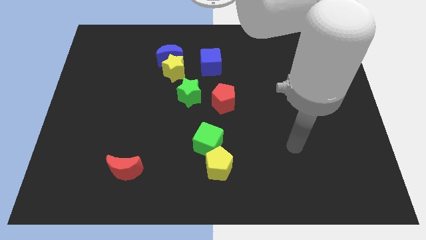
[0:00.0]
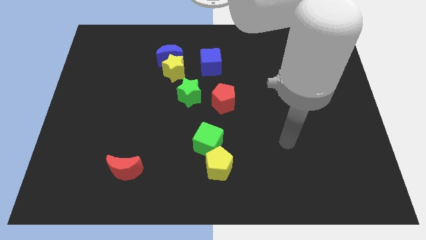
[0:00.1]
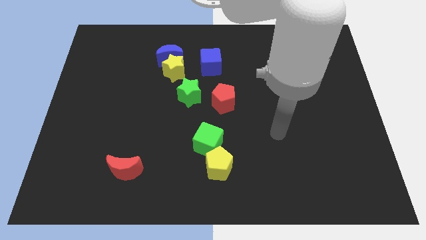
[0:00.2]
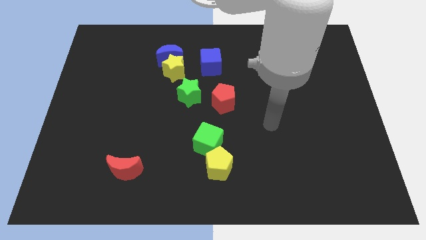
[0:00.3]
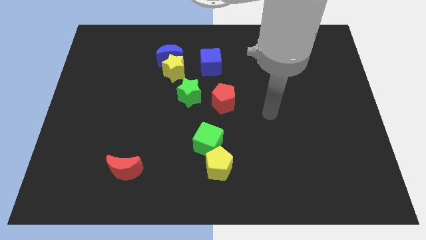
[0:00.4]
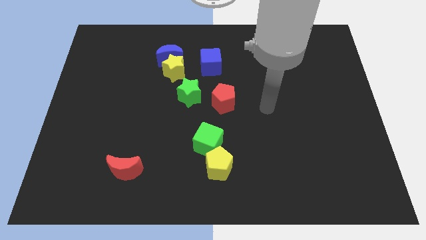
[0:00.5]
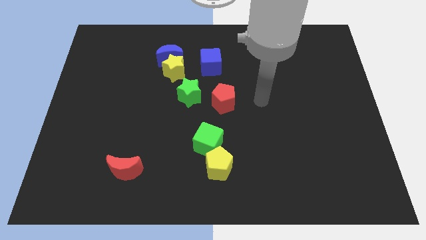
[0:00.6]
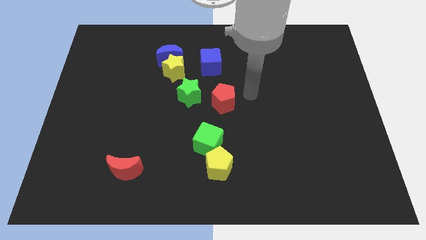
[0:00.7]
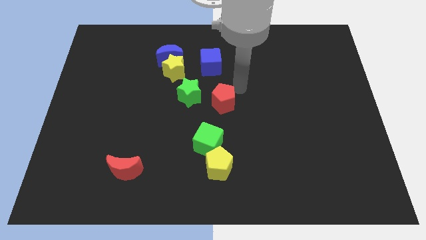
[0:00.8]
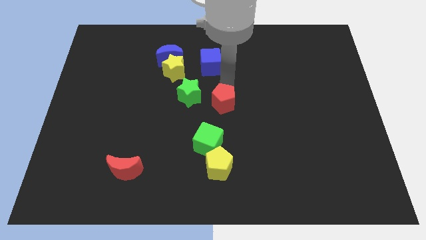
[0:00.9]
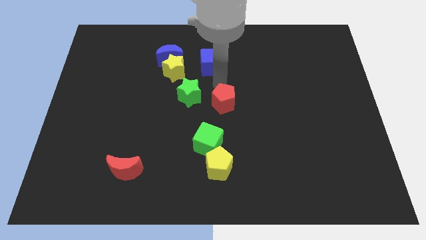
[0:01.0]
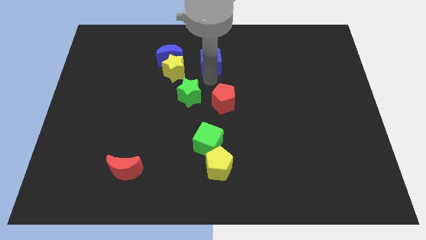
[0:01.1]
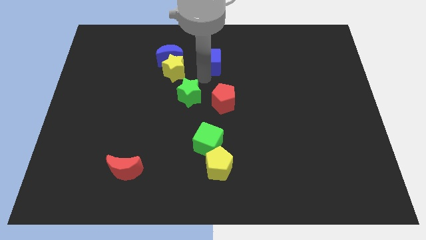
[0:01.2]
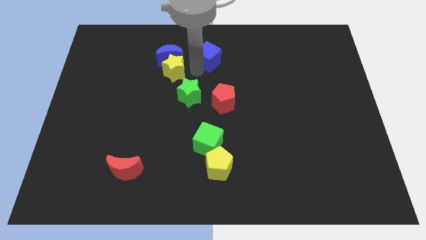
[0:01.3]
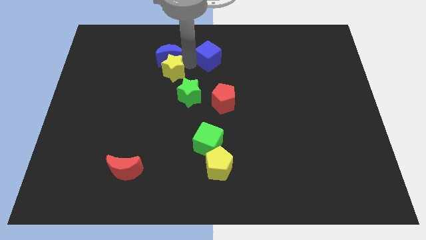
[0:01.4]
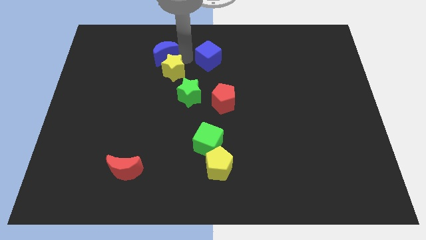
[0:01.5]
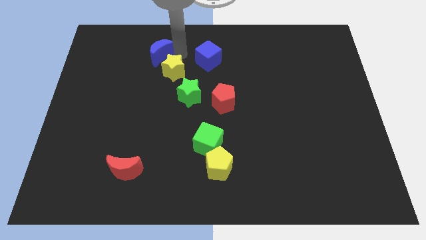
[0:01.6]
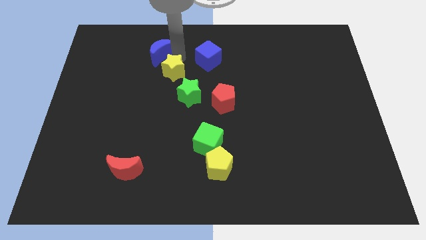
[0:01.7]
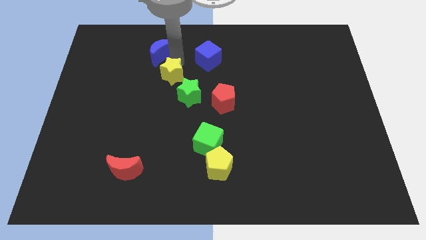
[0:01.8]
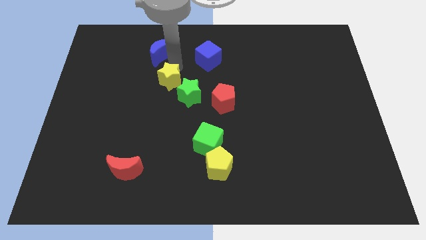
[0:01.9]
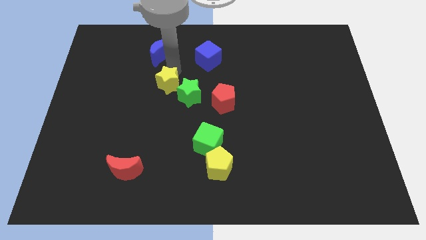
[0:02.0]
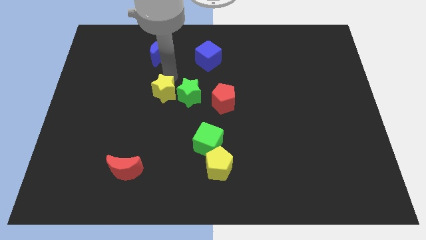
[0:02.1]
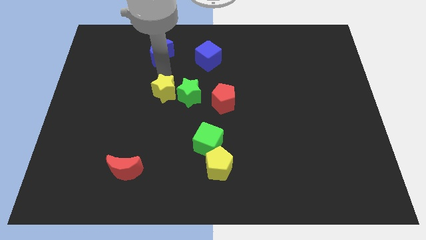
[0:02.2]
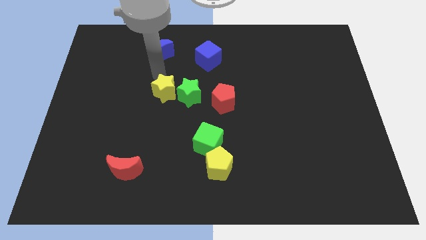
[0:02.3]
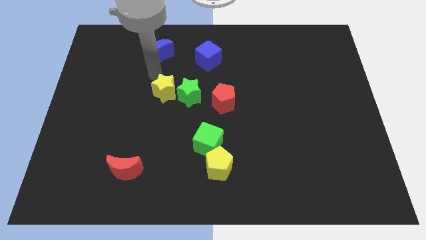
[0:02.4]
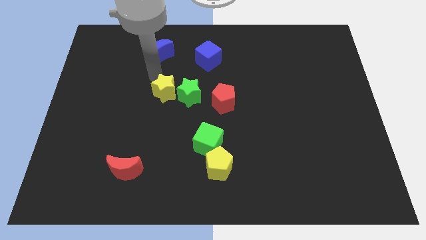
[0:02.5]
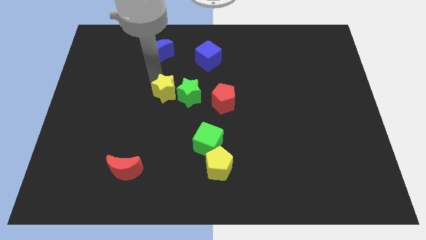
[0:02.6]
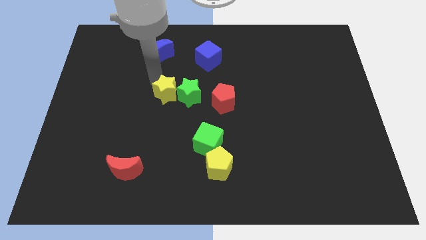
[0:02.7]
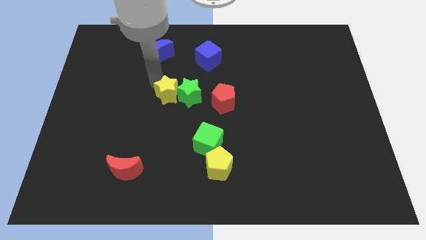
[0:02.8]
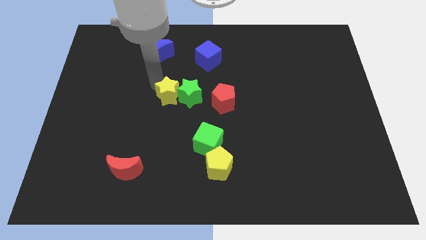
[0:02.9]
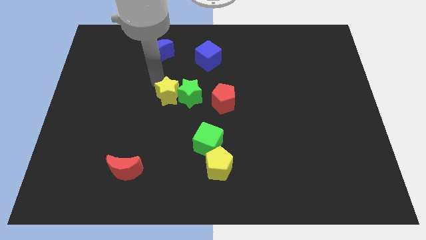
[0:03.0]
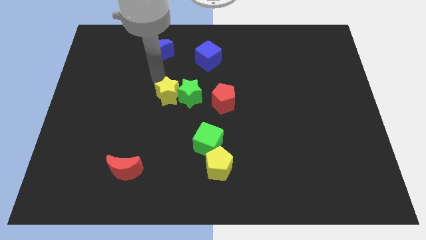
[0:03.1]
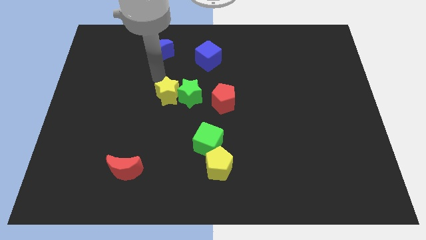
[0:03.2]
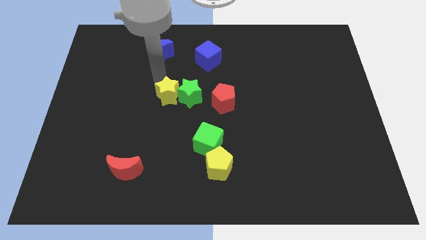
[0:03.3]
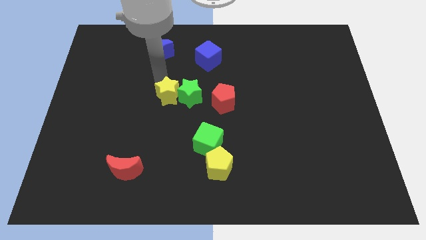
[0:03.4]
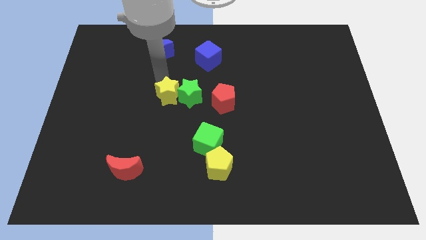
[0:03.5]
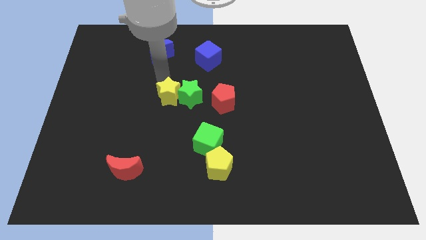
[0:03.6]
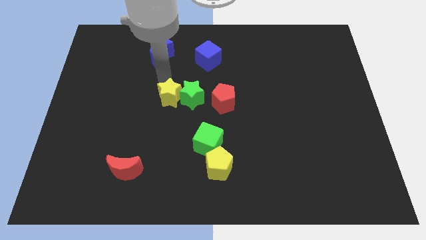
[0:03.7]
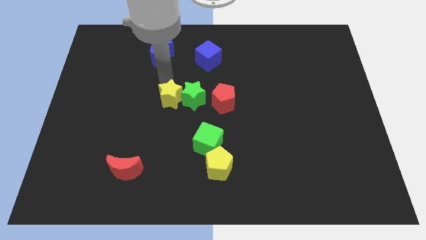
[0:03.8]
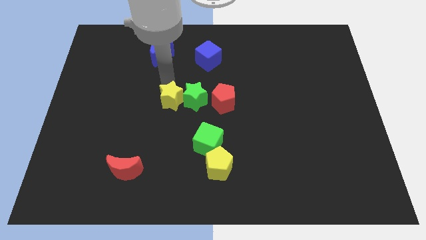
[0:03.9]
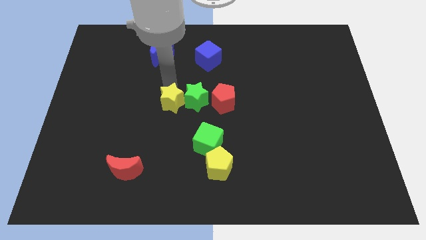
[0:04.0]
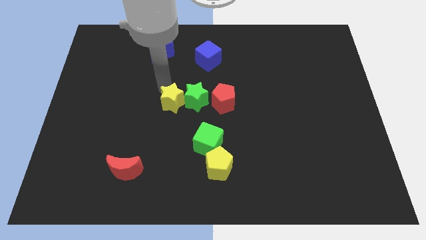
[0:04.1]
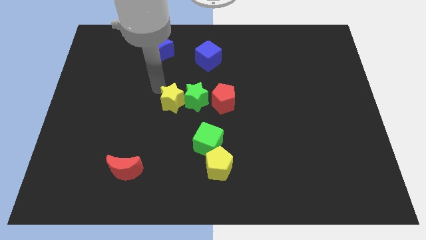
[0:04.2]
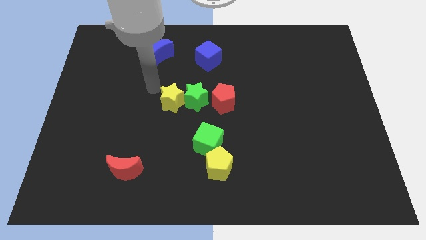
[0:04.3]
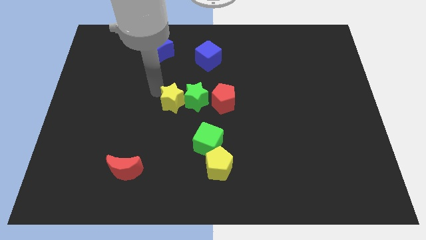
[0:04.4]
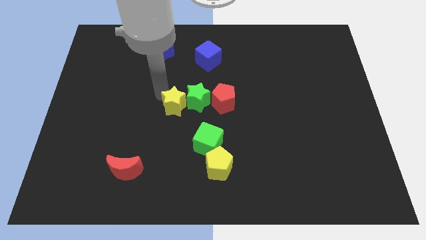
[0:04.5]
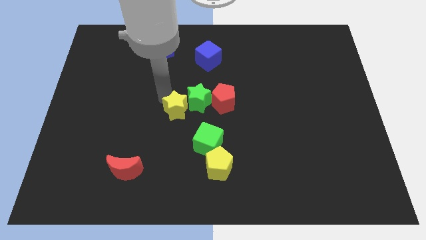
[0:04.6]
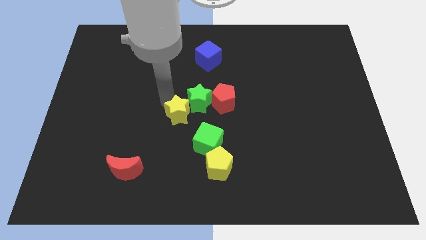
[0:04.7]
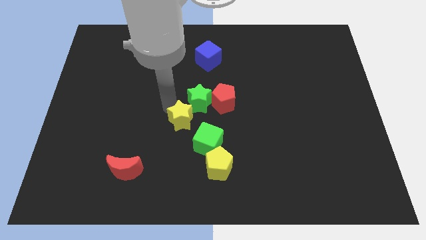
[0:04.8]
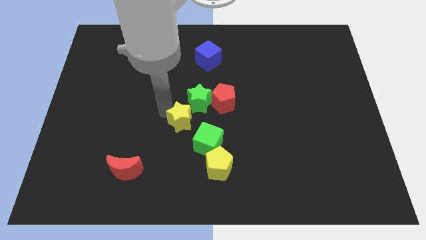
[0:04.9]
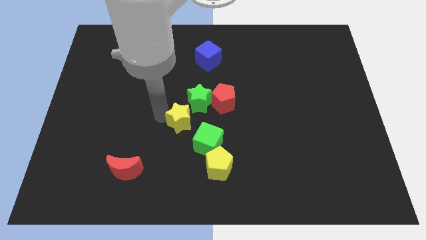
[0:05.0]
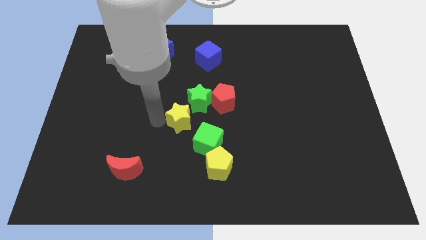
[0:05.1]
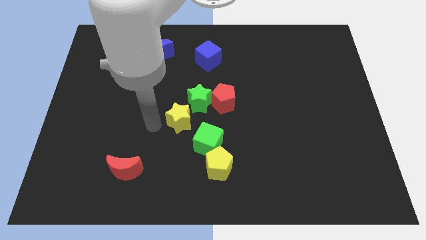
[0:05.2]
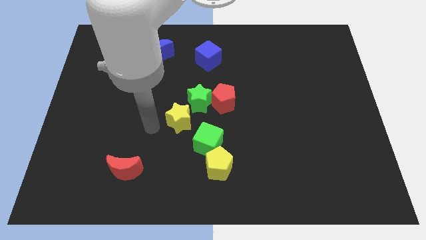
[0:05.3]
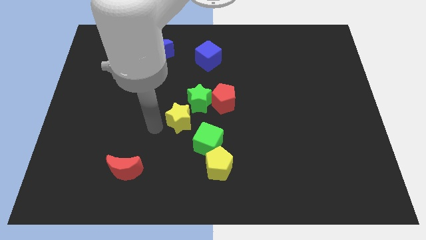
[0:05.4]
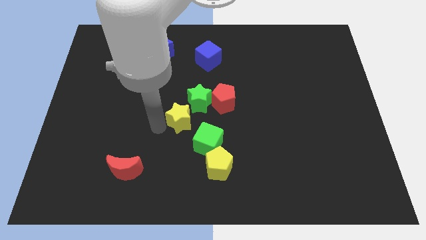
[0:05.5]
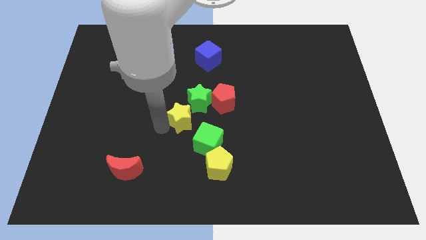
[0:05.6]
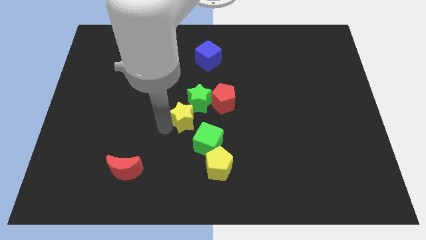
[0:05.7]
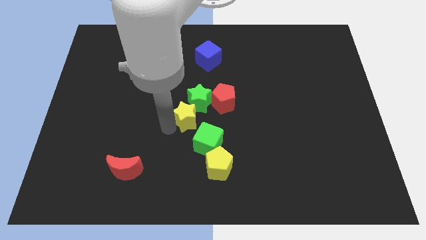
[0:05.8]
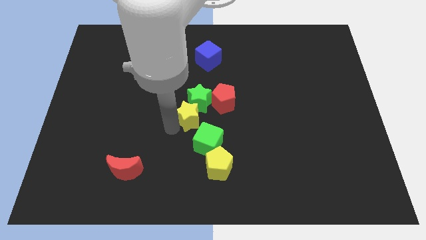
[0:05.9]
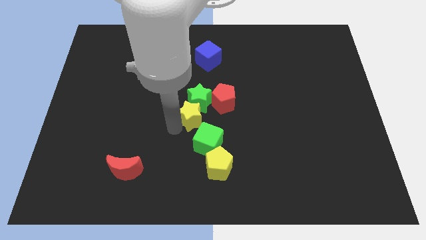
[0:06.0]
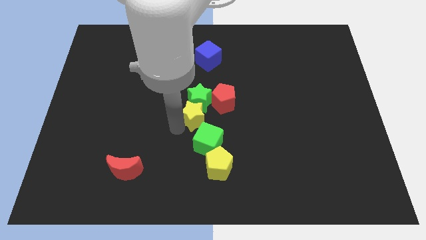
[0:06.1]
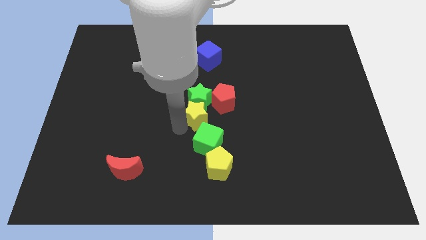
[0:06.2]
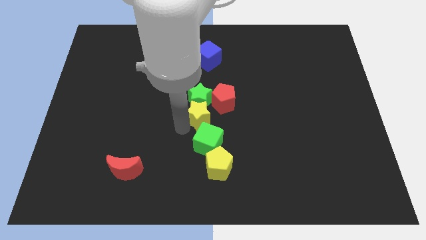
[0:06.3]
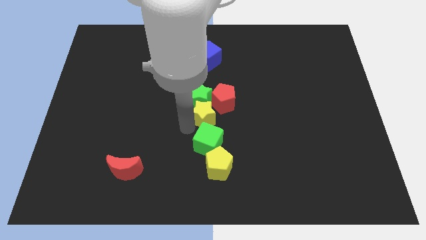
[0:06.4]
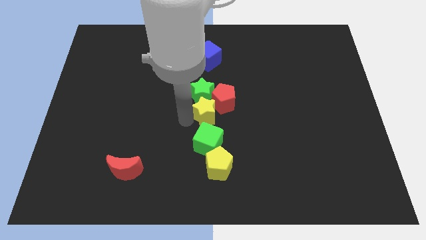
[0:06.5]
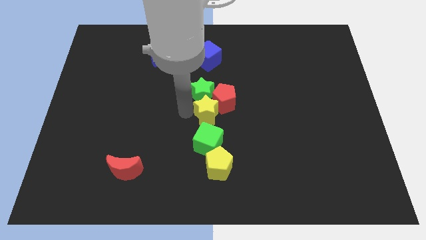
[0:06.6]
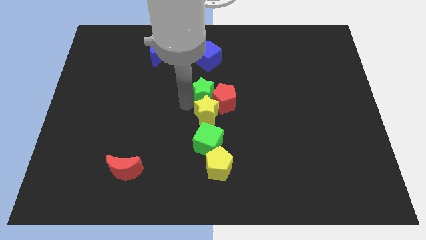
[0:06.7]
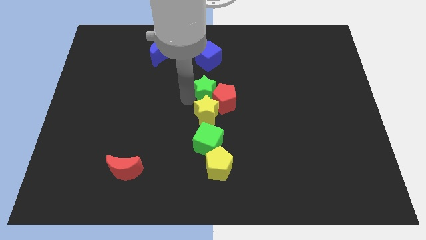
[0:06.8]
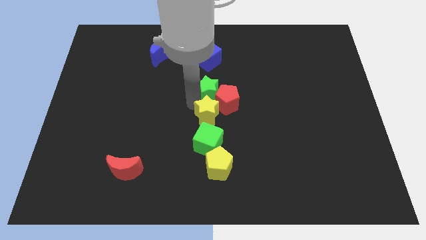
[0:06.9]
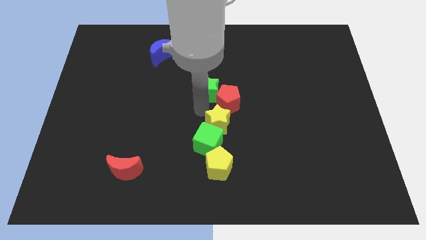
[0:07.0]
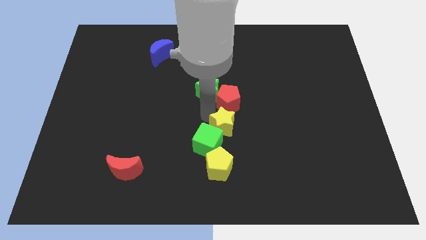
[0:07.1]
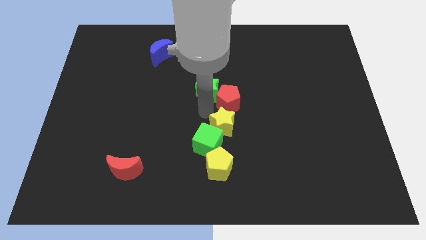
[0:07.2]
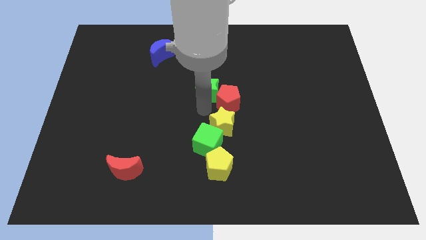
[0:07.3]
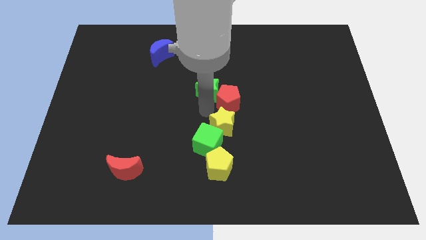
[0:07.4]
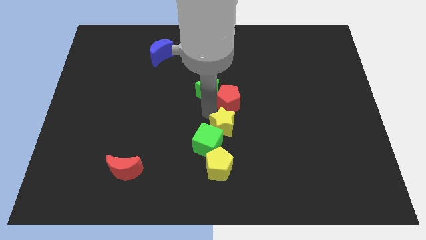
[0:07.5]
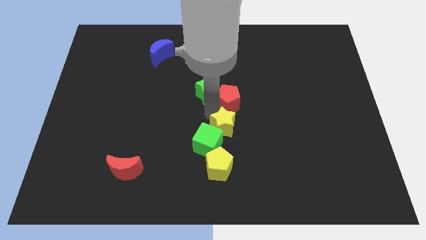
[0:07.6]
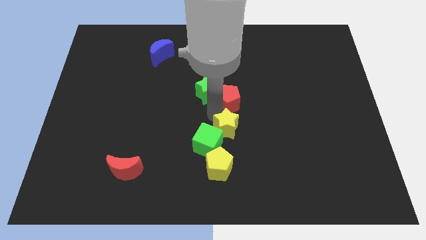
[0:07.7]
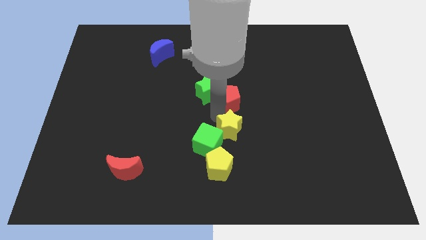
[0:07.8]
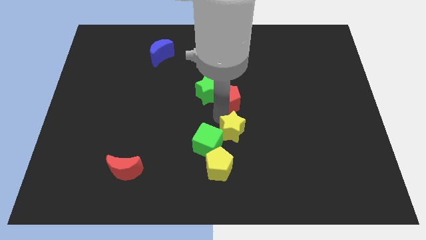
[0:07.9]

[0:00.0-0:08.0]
put the yellow star to the top right side of the yellow pentagon
